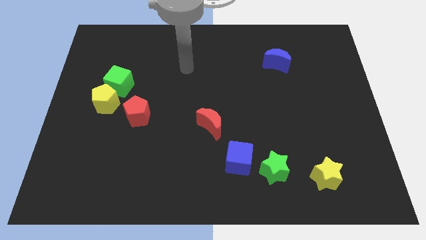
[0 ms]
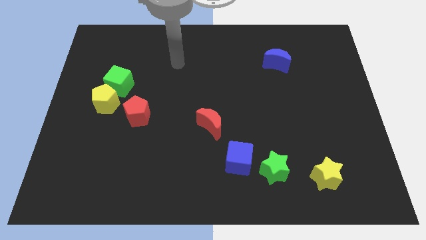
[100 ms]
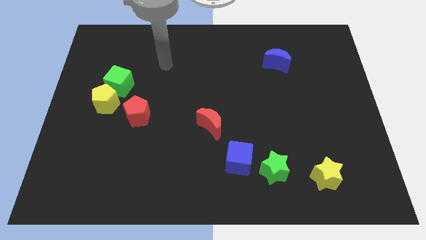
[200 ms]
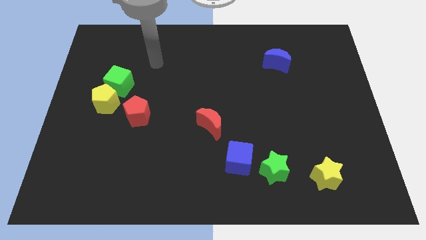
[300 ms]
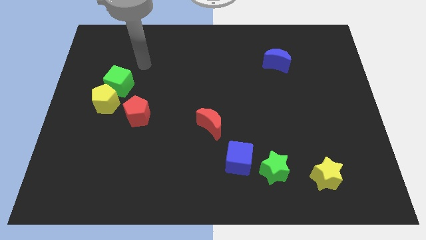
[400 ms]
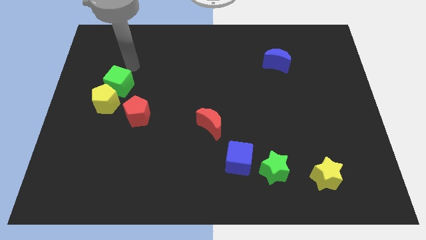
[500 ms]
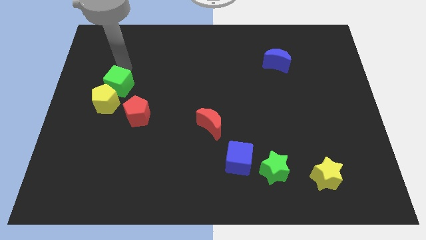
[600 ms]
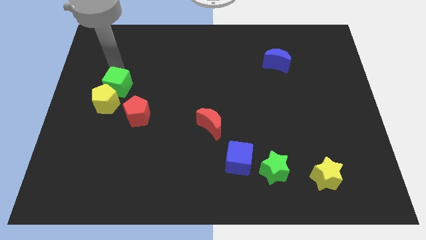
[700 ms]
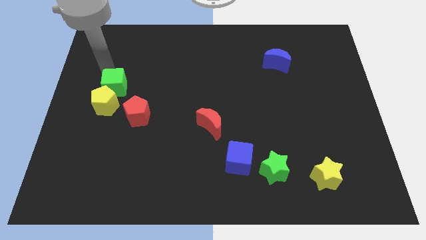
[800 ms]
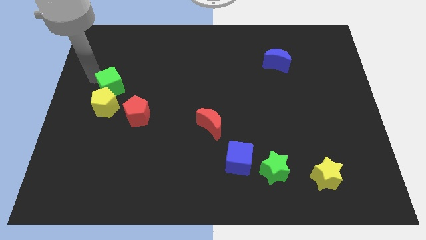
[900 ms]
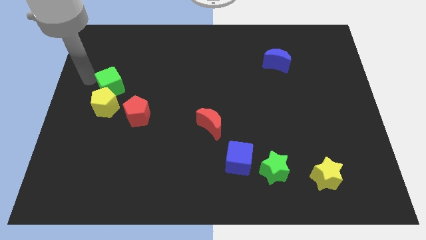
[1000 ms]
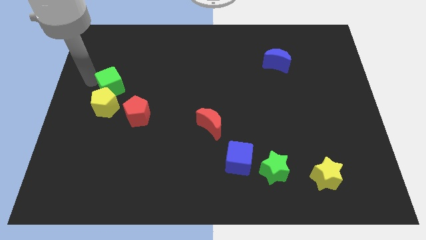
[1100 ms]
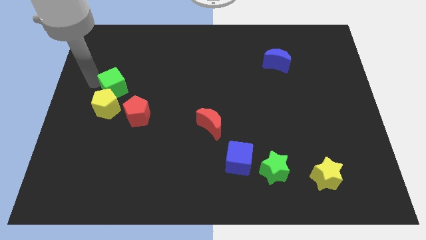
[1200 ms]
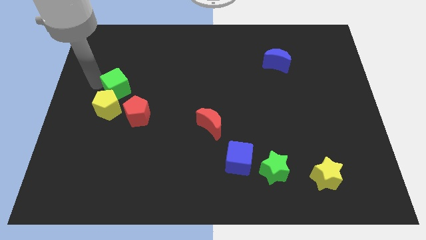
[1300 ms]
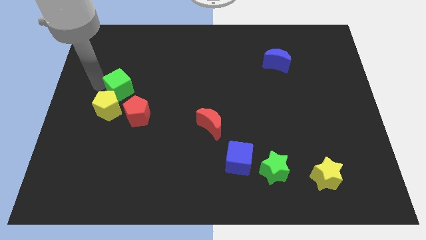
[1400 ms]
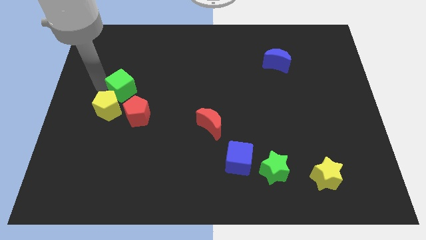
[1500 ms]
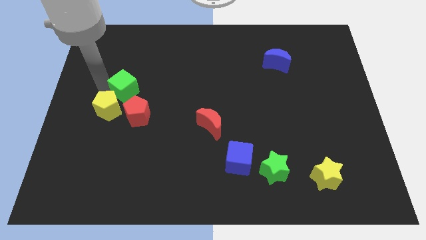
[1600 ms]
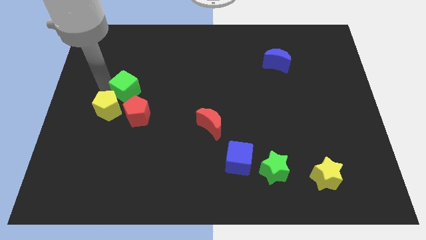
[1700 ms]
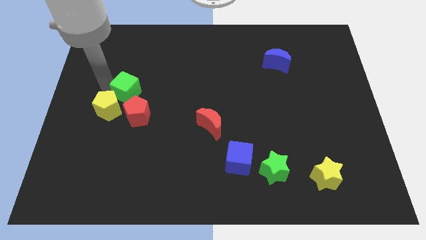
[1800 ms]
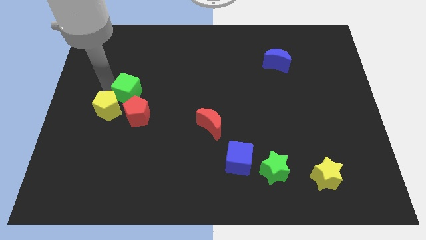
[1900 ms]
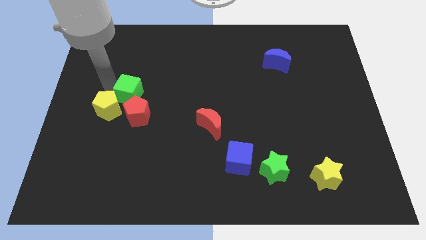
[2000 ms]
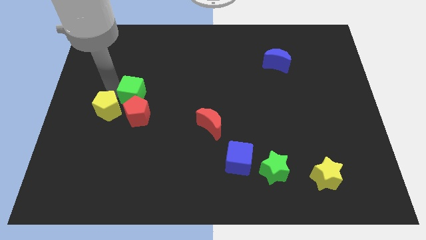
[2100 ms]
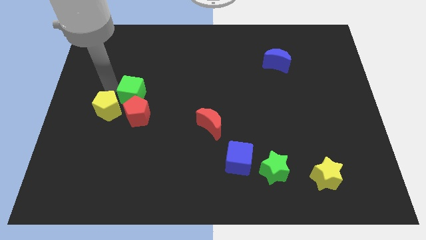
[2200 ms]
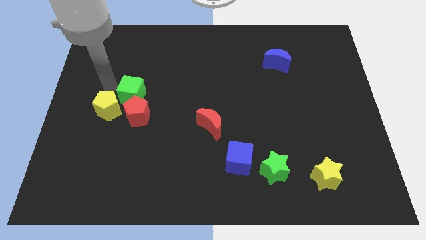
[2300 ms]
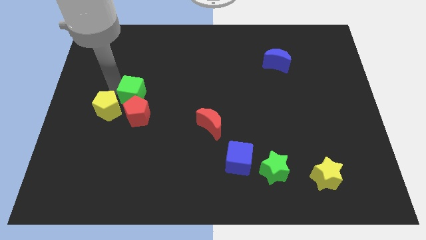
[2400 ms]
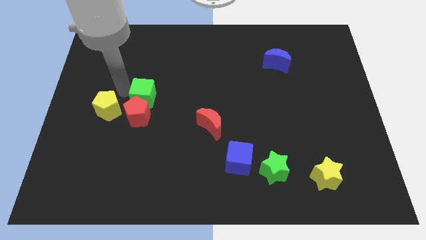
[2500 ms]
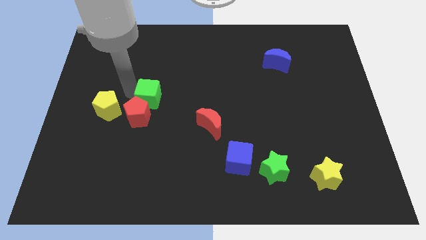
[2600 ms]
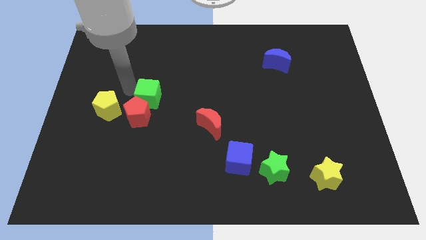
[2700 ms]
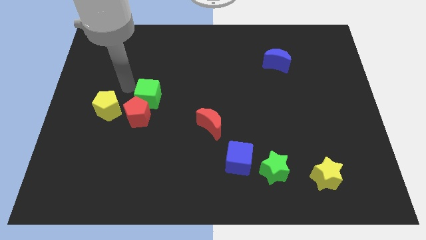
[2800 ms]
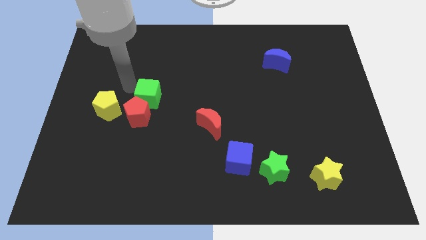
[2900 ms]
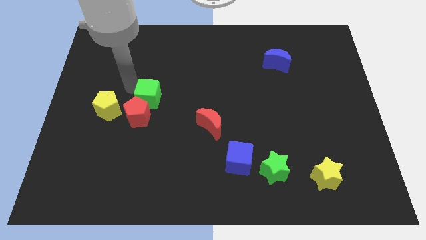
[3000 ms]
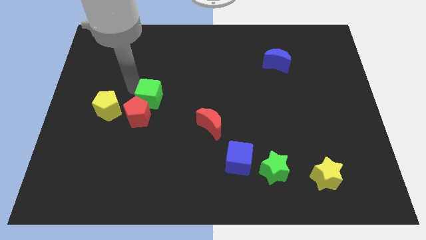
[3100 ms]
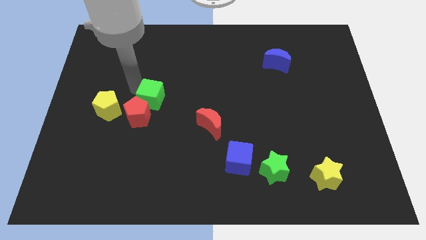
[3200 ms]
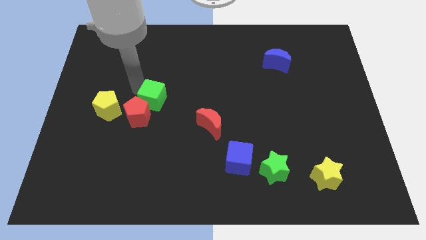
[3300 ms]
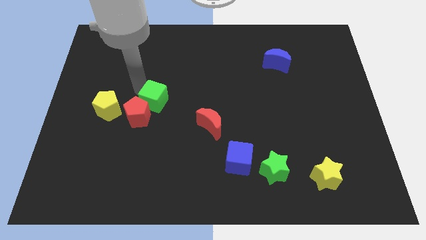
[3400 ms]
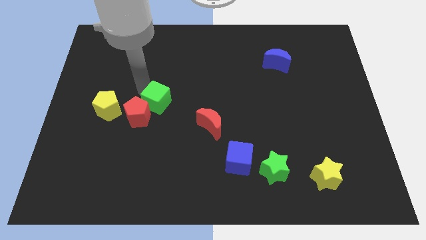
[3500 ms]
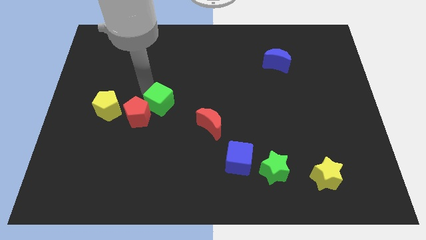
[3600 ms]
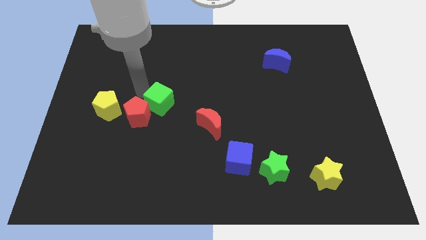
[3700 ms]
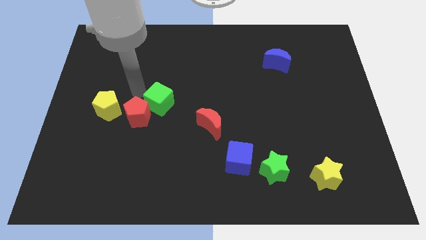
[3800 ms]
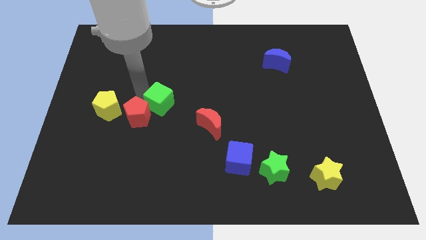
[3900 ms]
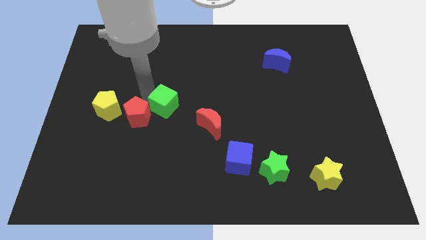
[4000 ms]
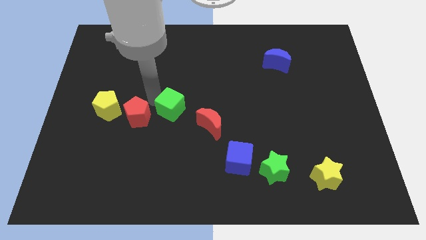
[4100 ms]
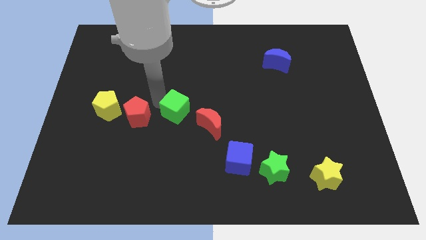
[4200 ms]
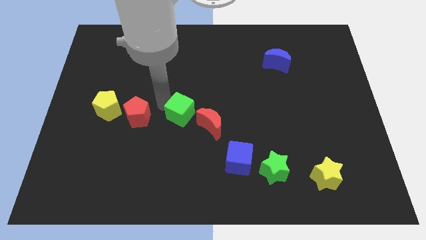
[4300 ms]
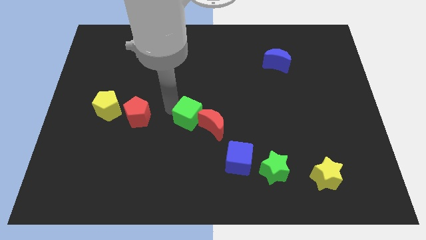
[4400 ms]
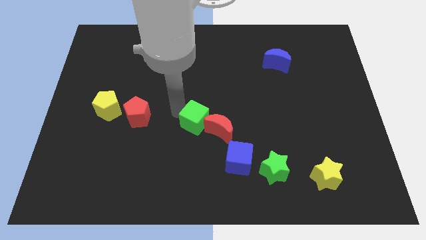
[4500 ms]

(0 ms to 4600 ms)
put the green cube to the red moon

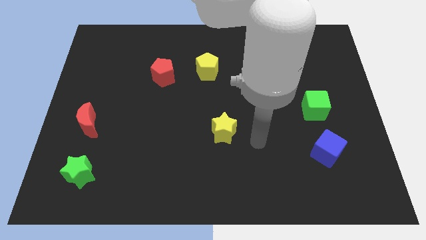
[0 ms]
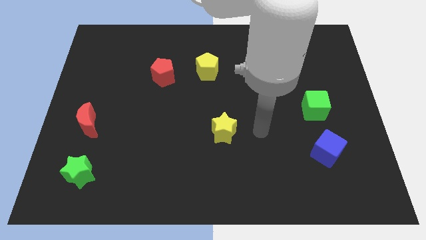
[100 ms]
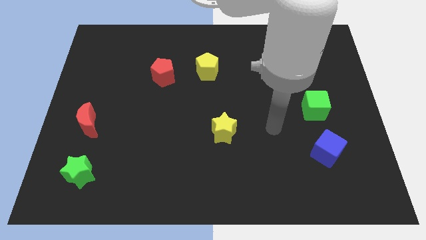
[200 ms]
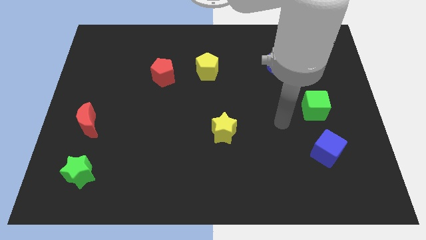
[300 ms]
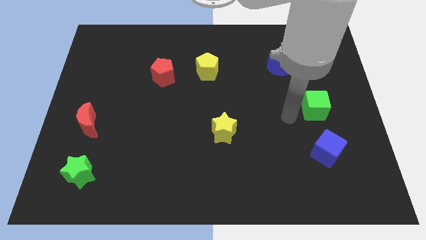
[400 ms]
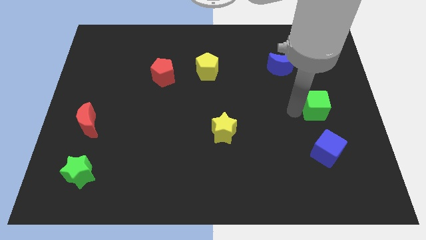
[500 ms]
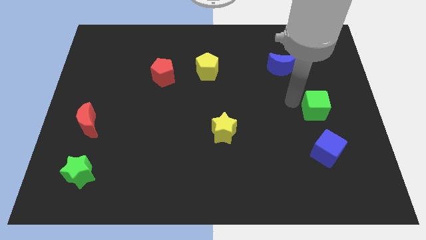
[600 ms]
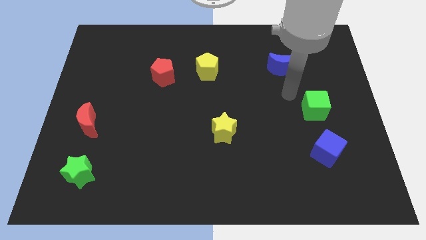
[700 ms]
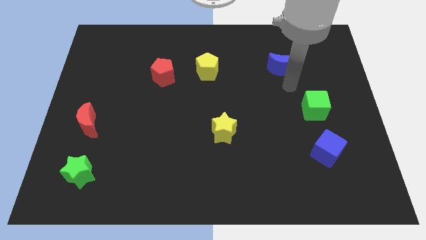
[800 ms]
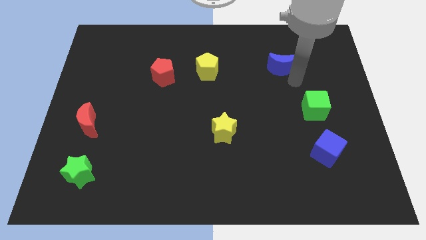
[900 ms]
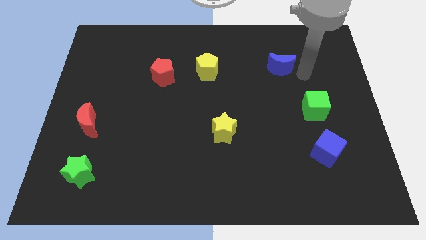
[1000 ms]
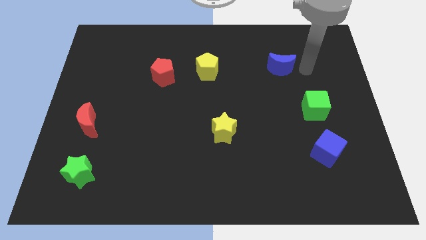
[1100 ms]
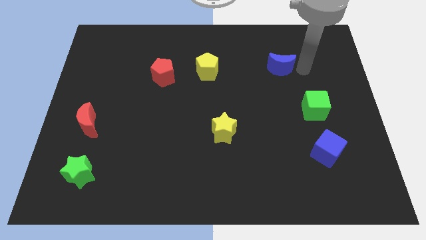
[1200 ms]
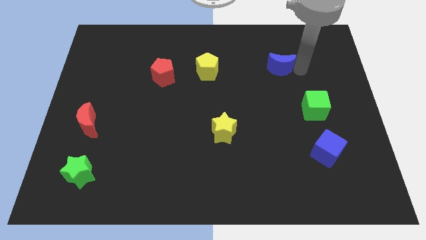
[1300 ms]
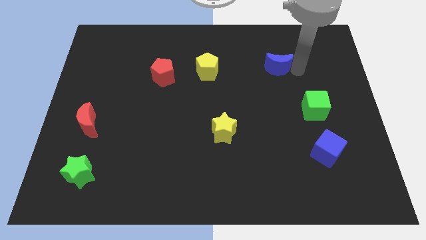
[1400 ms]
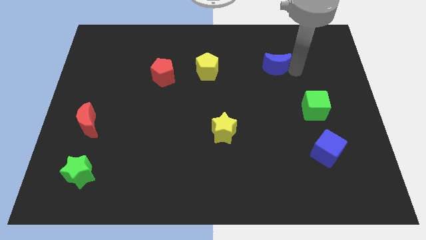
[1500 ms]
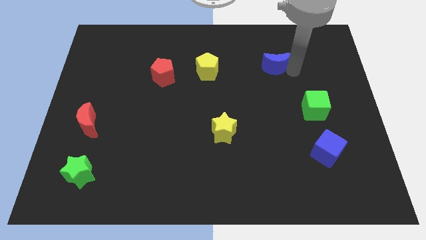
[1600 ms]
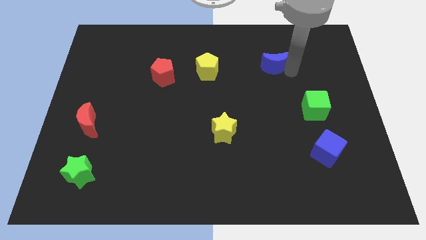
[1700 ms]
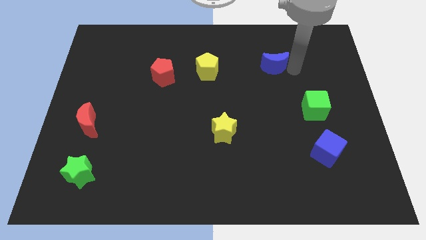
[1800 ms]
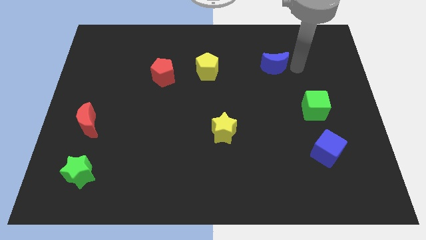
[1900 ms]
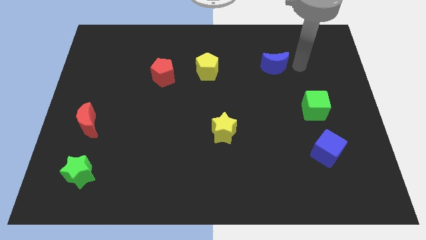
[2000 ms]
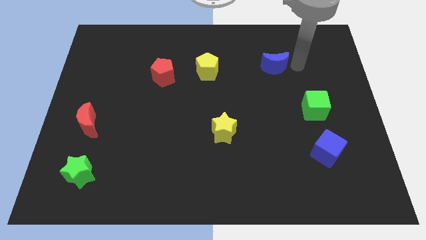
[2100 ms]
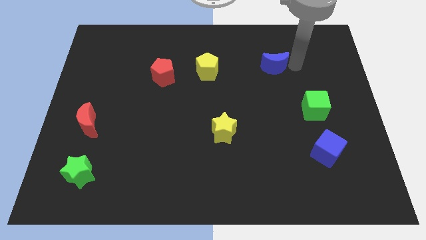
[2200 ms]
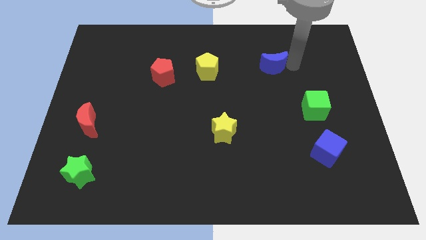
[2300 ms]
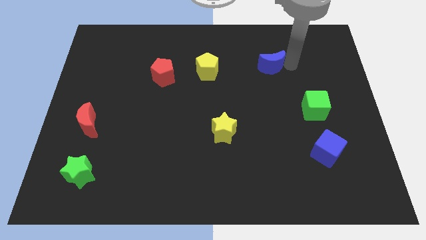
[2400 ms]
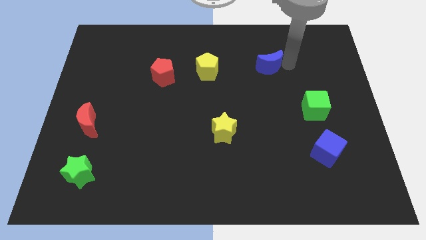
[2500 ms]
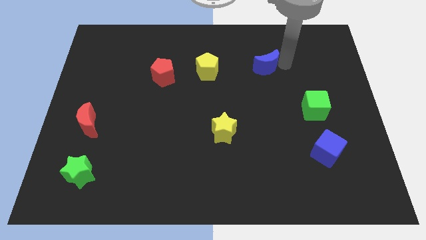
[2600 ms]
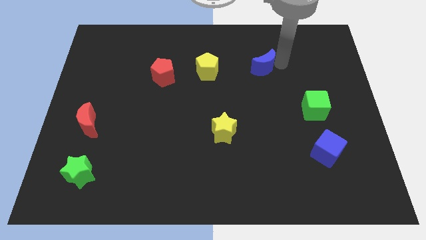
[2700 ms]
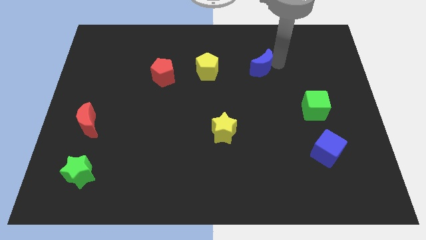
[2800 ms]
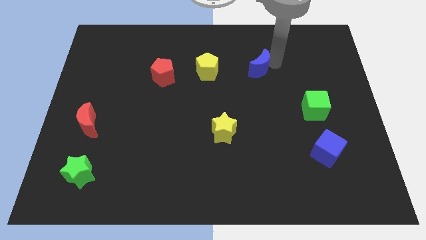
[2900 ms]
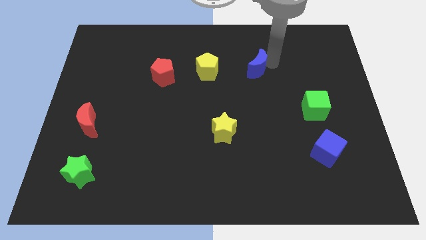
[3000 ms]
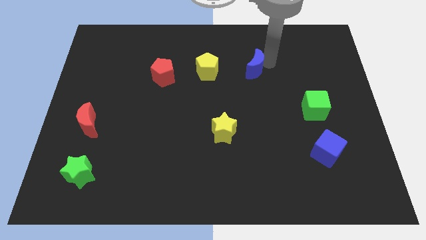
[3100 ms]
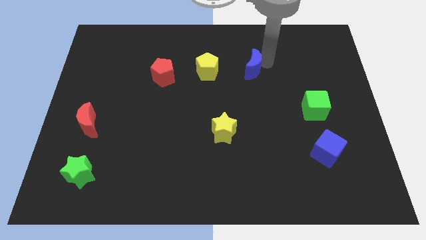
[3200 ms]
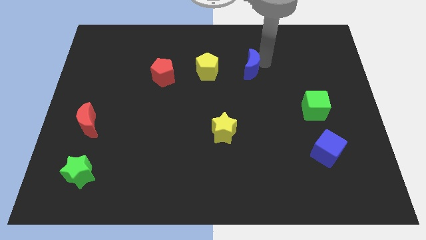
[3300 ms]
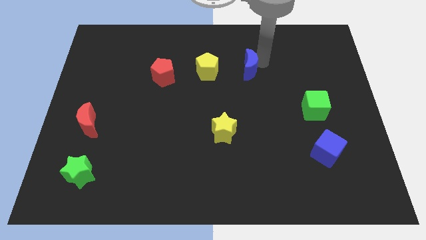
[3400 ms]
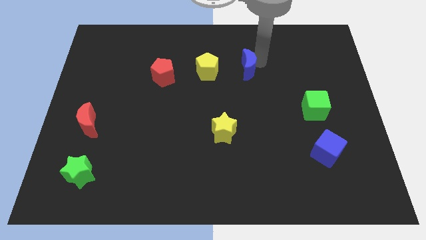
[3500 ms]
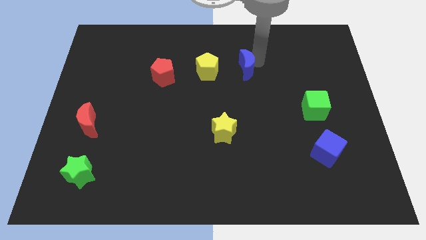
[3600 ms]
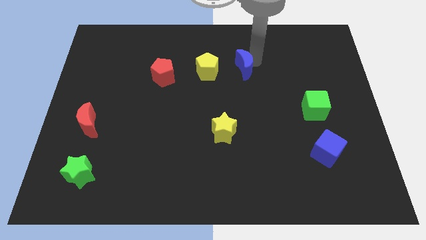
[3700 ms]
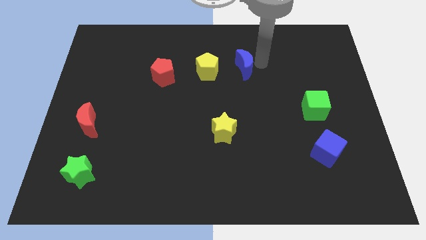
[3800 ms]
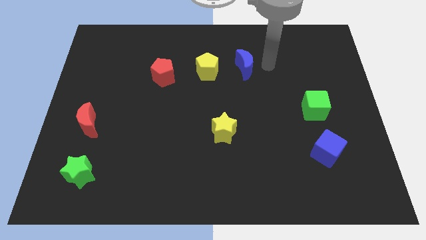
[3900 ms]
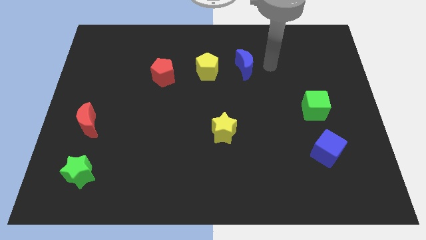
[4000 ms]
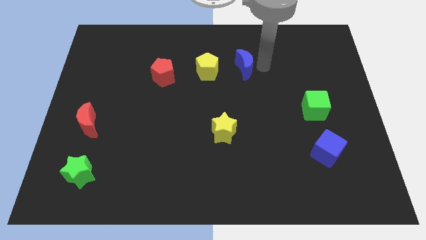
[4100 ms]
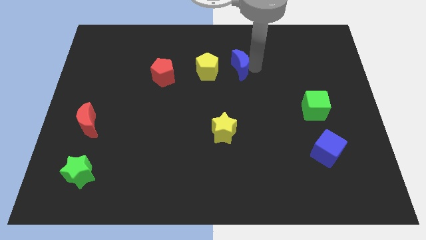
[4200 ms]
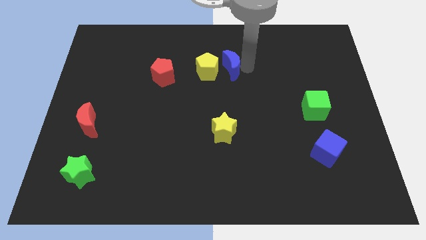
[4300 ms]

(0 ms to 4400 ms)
push the blue moon next to the yellow pentagon
